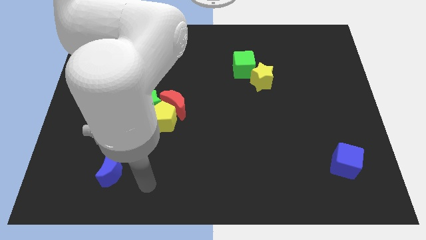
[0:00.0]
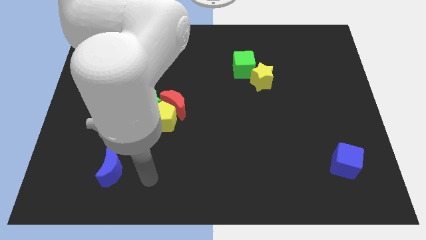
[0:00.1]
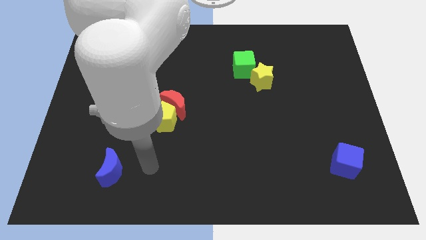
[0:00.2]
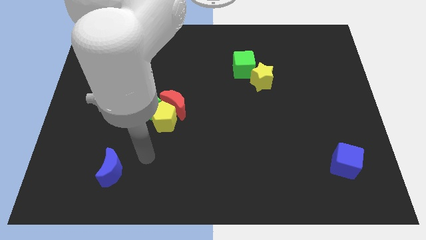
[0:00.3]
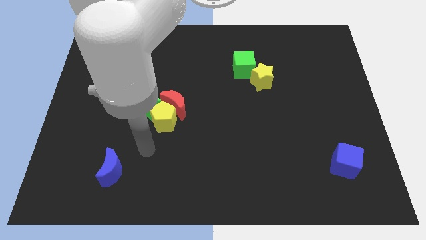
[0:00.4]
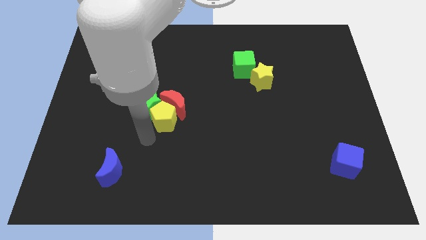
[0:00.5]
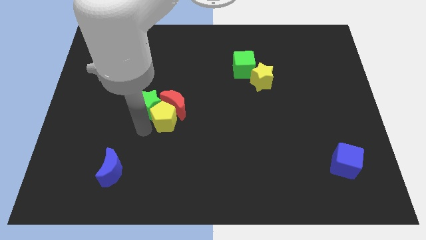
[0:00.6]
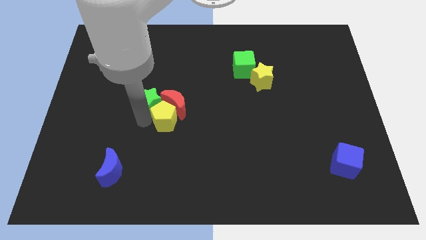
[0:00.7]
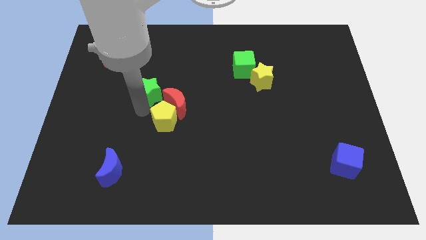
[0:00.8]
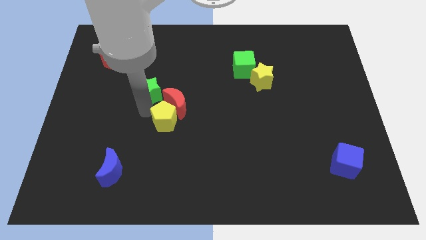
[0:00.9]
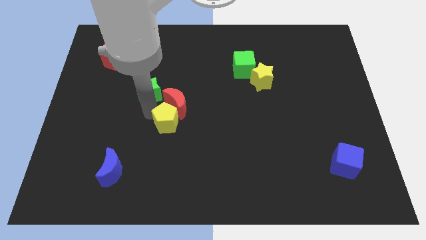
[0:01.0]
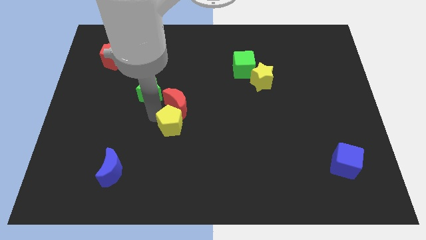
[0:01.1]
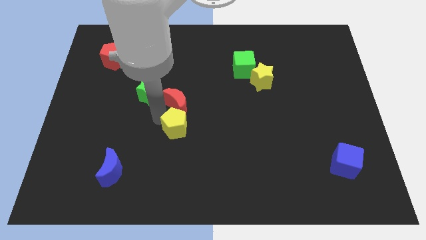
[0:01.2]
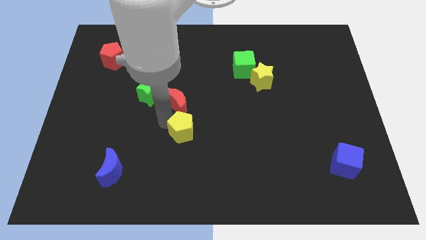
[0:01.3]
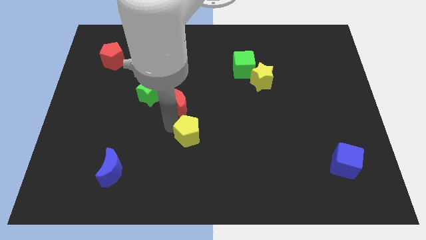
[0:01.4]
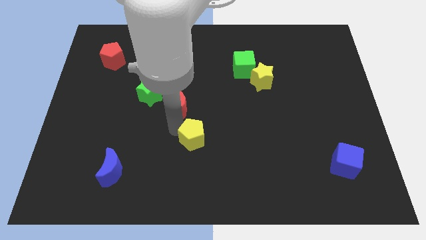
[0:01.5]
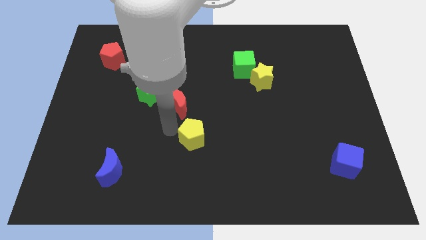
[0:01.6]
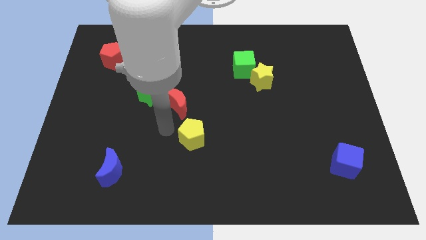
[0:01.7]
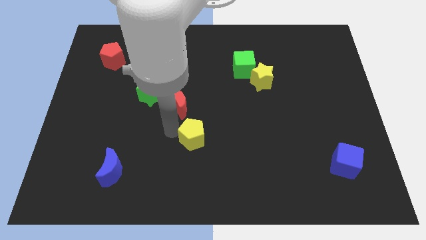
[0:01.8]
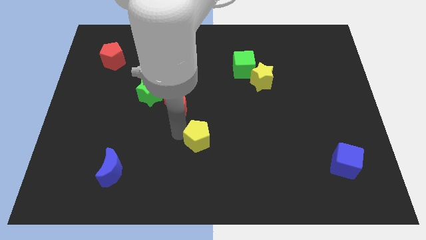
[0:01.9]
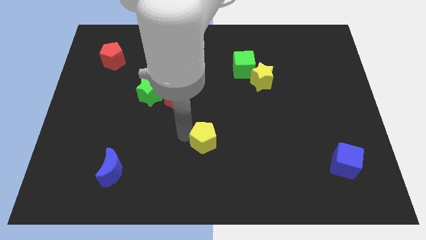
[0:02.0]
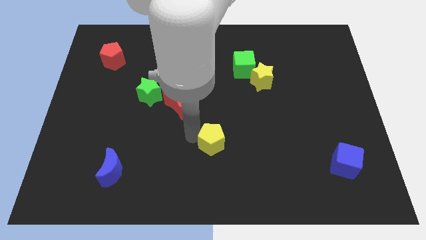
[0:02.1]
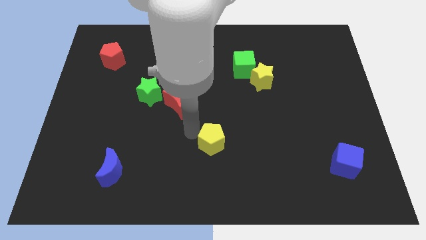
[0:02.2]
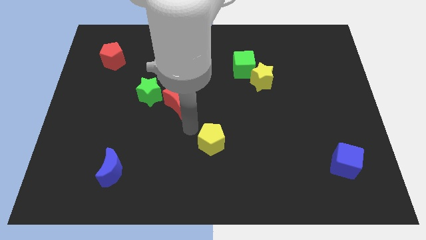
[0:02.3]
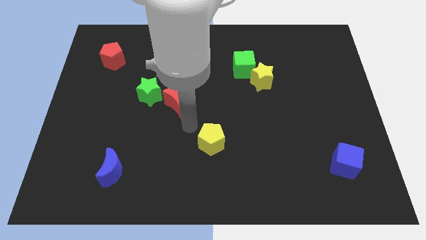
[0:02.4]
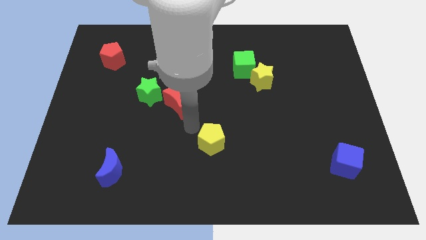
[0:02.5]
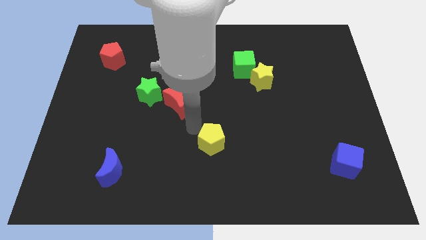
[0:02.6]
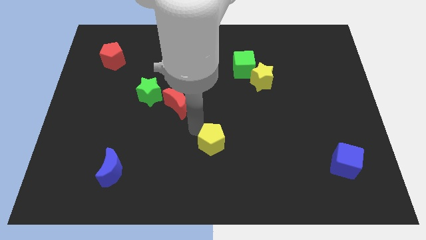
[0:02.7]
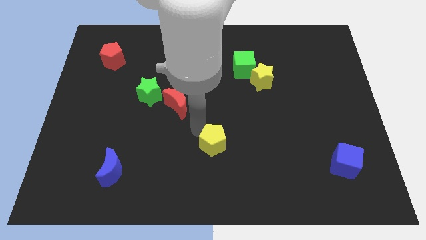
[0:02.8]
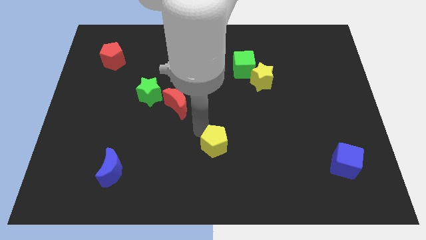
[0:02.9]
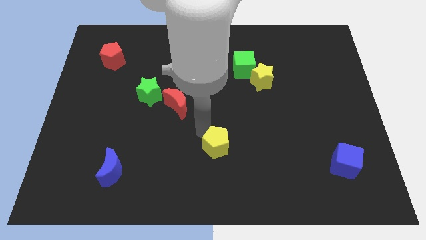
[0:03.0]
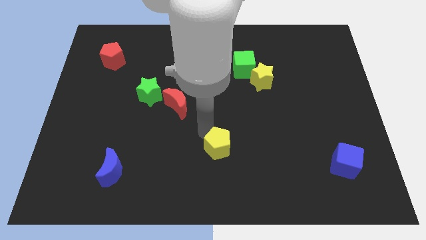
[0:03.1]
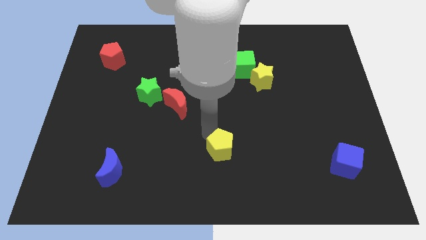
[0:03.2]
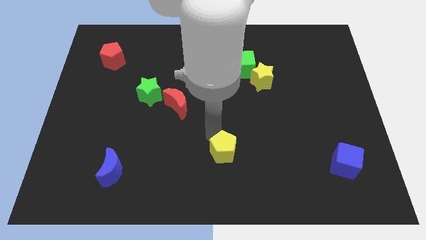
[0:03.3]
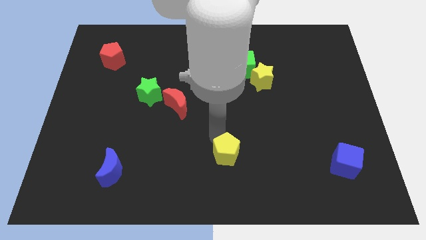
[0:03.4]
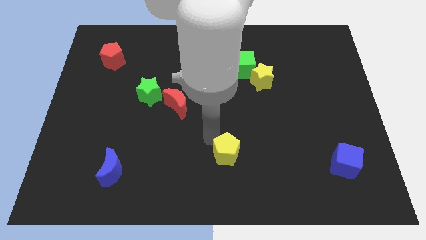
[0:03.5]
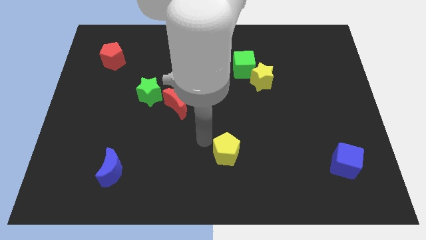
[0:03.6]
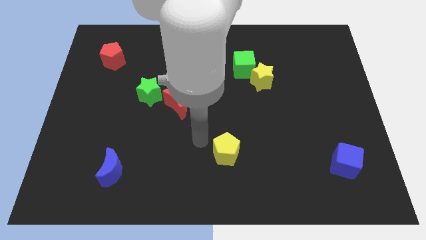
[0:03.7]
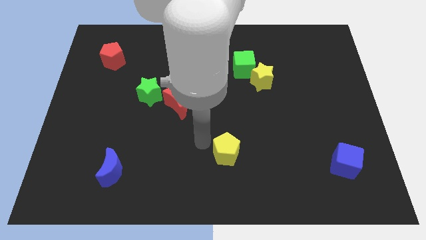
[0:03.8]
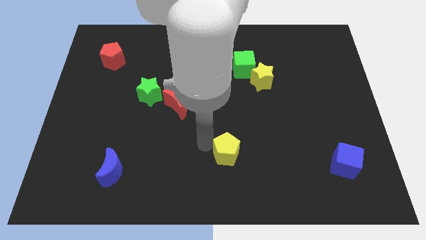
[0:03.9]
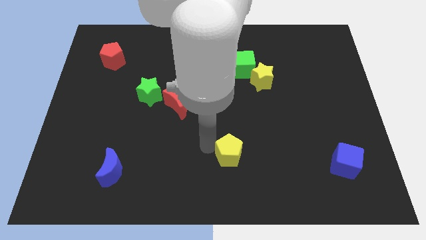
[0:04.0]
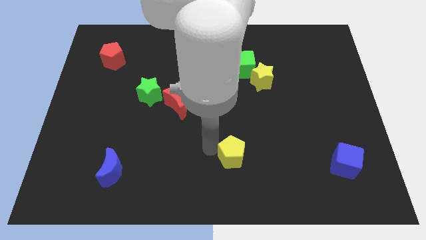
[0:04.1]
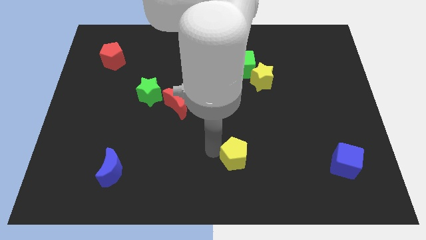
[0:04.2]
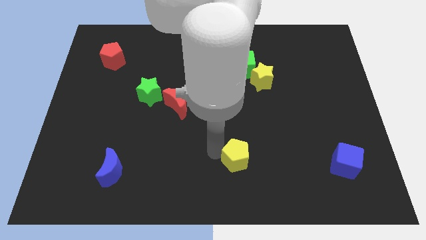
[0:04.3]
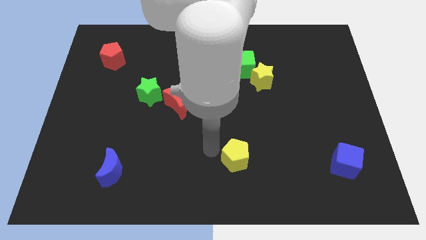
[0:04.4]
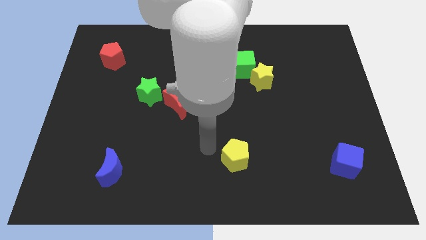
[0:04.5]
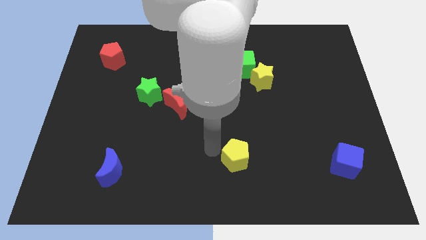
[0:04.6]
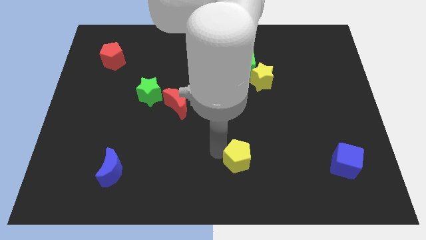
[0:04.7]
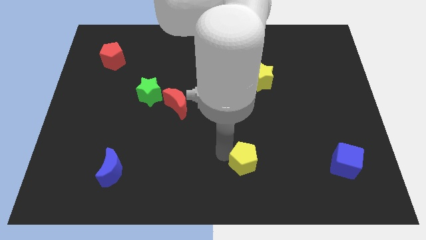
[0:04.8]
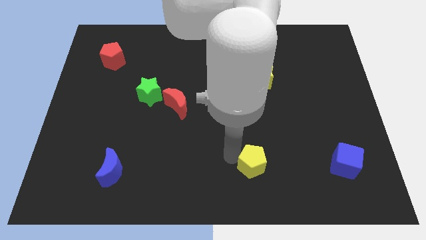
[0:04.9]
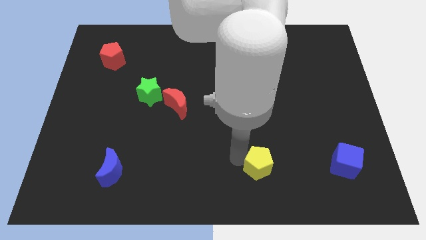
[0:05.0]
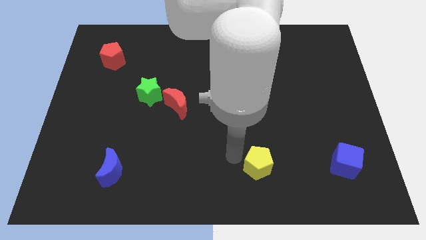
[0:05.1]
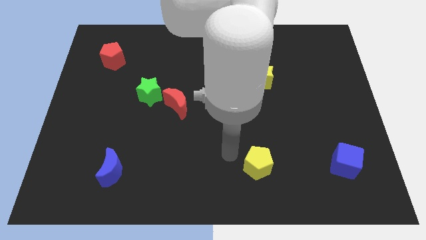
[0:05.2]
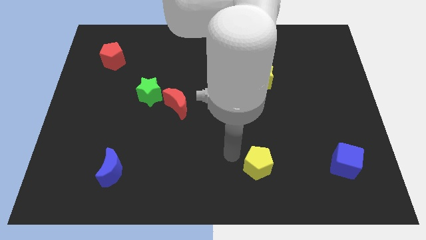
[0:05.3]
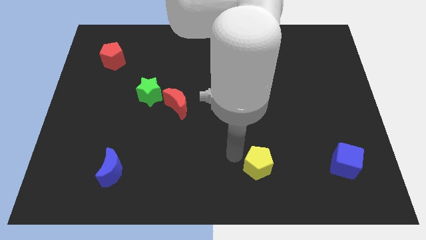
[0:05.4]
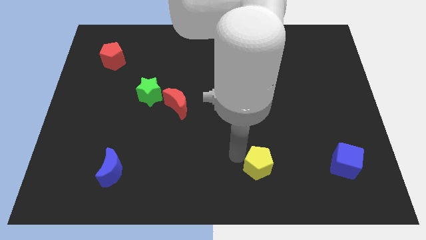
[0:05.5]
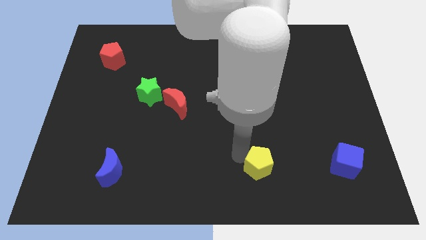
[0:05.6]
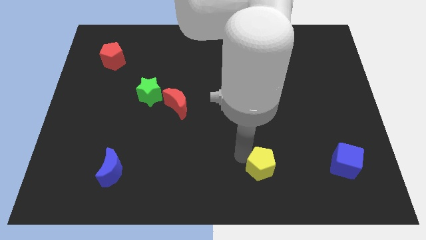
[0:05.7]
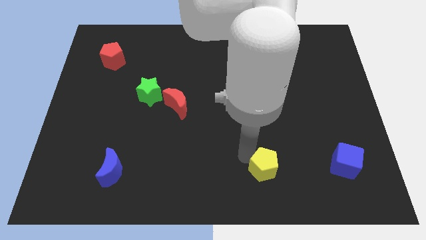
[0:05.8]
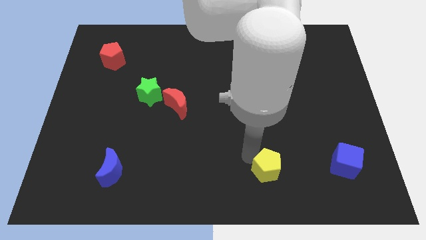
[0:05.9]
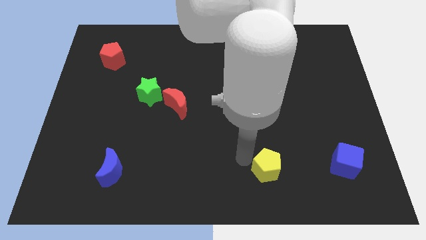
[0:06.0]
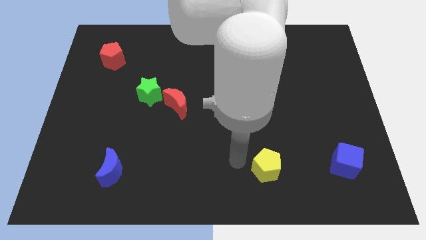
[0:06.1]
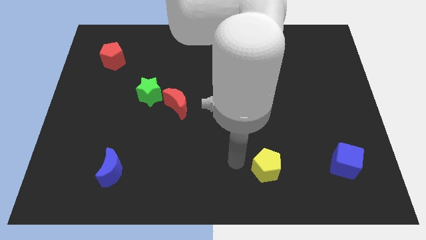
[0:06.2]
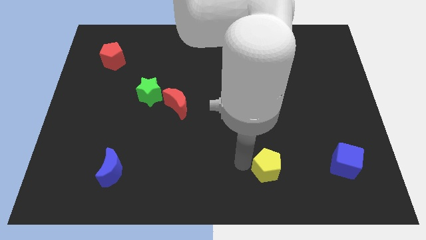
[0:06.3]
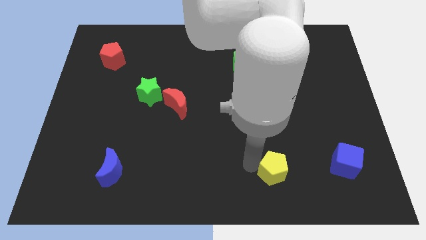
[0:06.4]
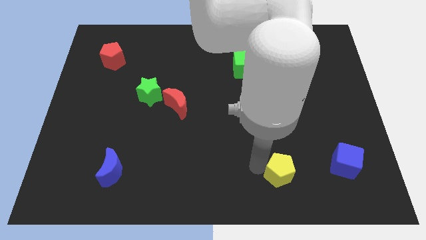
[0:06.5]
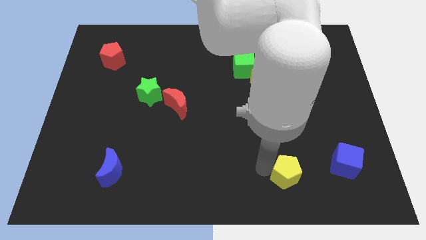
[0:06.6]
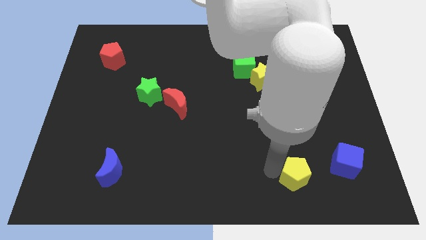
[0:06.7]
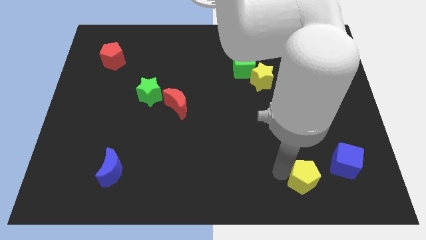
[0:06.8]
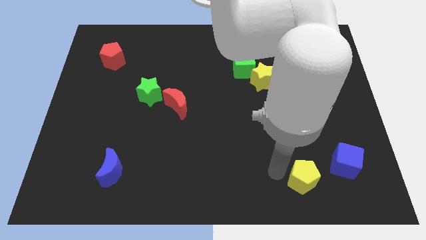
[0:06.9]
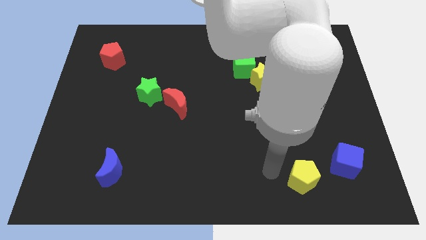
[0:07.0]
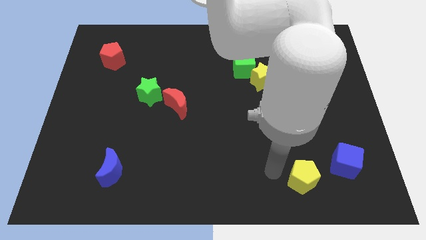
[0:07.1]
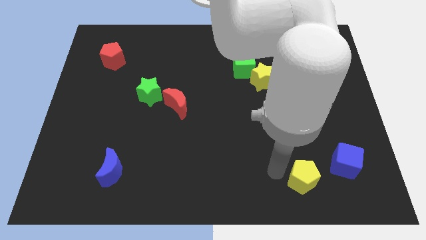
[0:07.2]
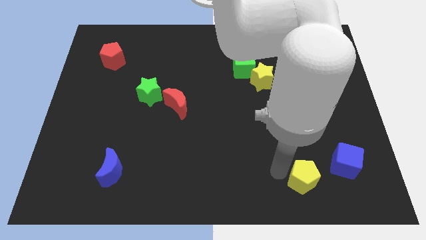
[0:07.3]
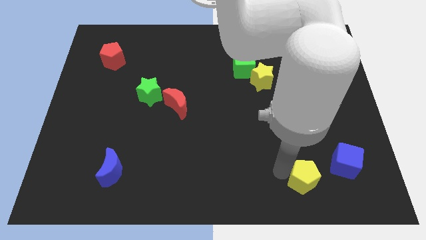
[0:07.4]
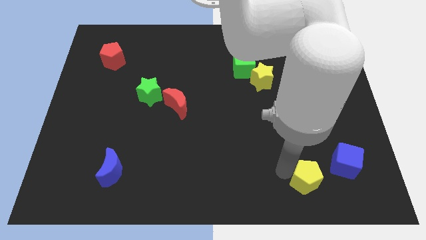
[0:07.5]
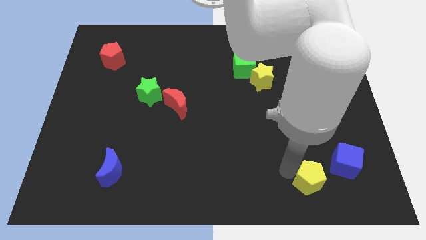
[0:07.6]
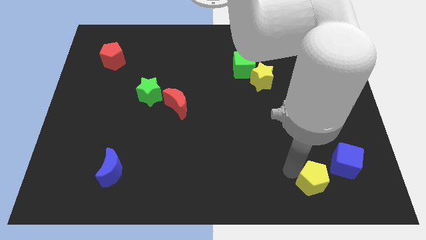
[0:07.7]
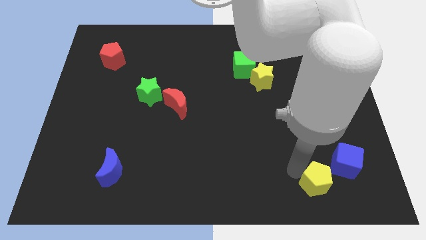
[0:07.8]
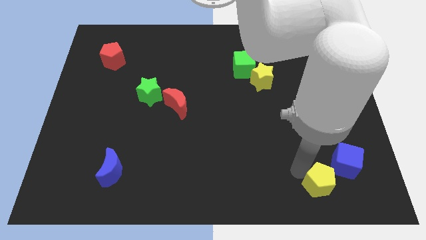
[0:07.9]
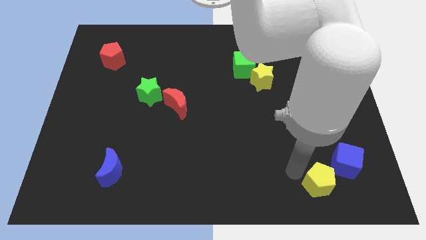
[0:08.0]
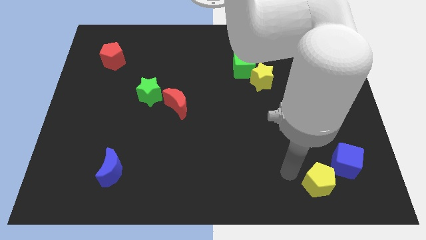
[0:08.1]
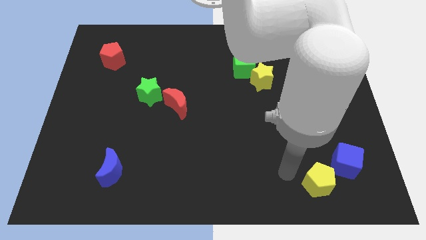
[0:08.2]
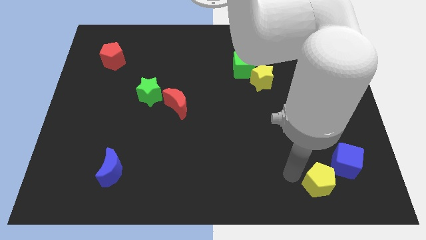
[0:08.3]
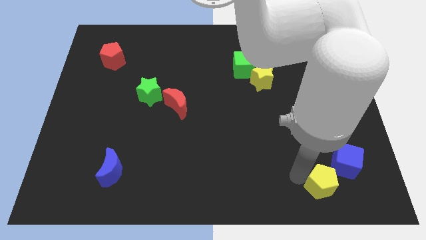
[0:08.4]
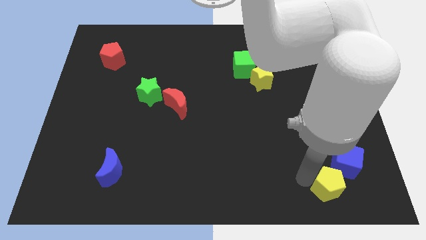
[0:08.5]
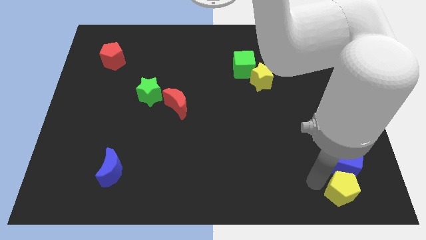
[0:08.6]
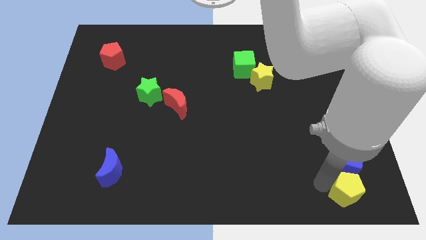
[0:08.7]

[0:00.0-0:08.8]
put the yellow pentagon to the bottom right corner
